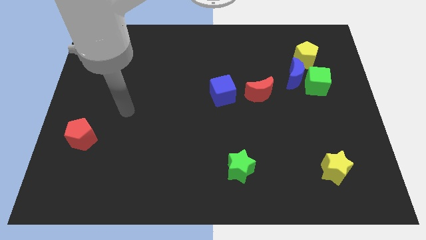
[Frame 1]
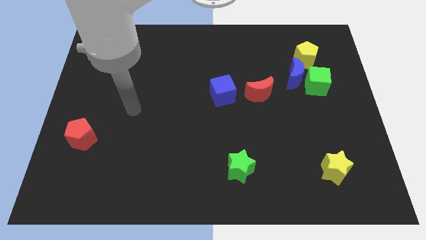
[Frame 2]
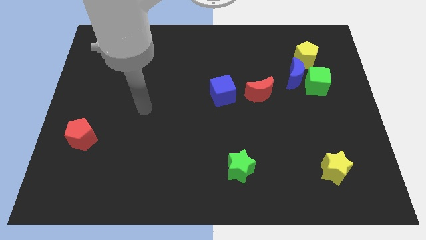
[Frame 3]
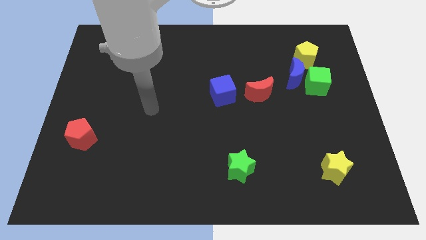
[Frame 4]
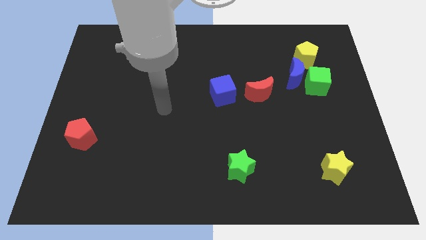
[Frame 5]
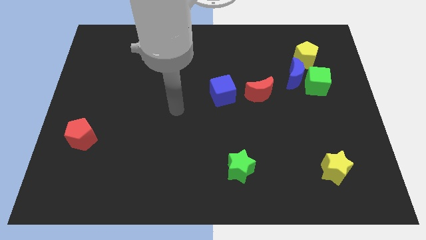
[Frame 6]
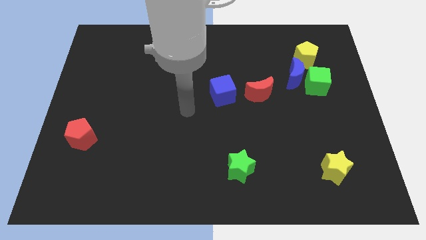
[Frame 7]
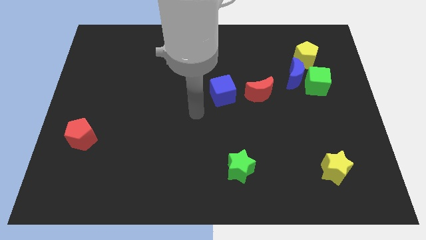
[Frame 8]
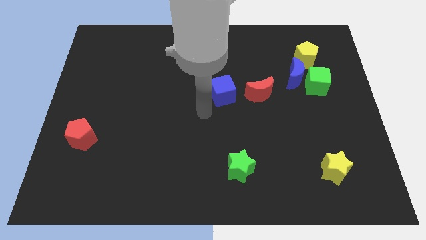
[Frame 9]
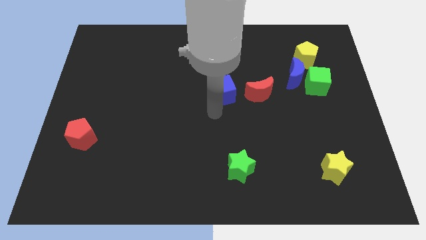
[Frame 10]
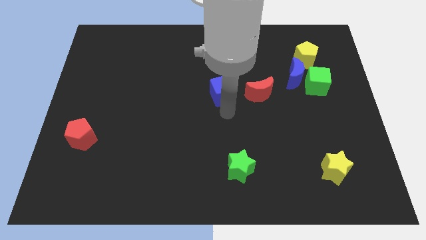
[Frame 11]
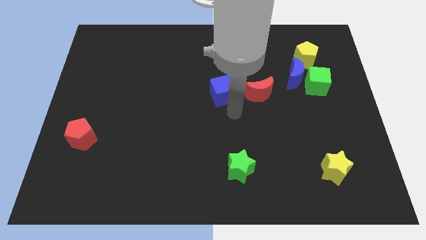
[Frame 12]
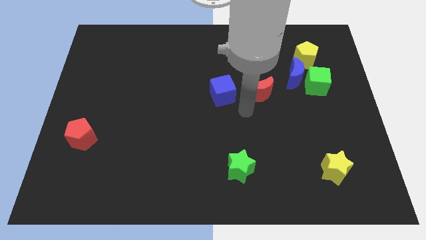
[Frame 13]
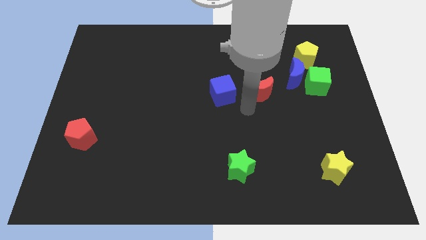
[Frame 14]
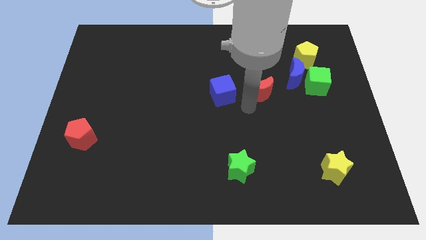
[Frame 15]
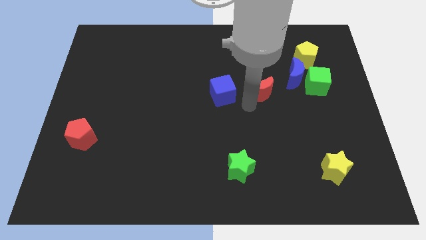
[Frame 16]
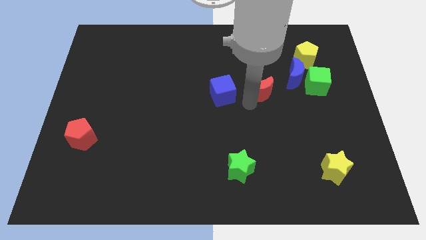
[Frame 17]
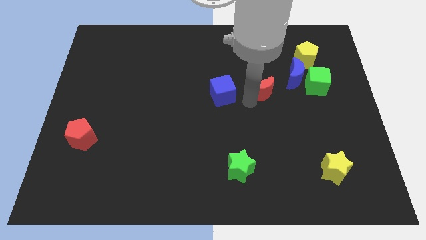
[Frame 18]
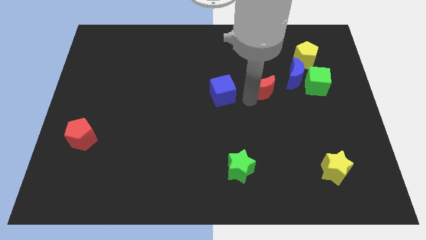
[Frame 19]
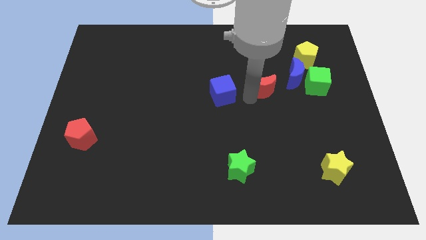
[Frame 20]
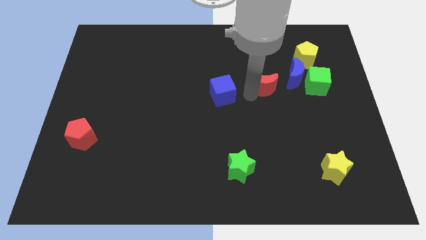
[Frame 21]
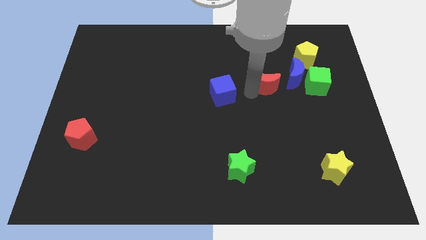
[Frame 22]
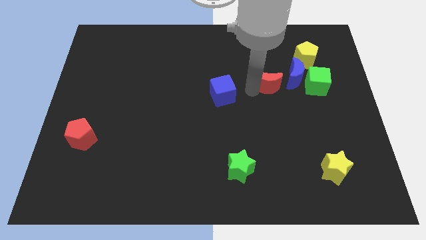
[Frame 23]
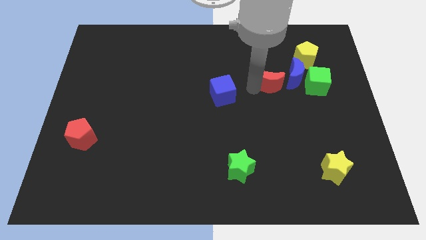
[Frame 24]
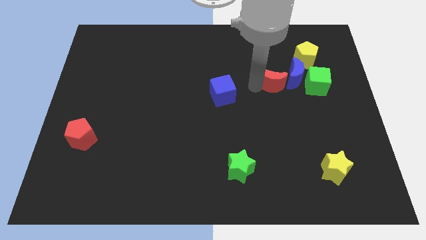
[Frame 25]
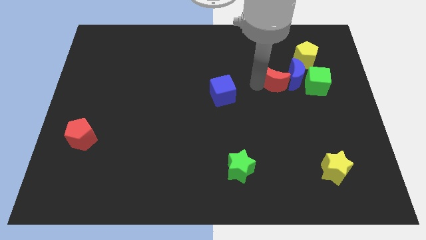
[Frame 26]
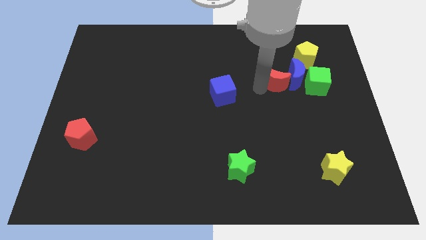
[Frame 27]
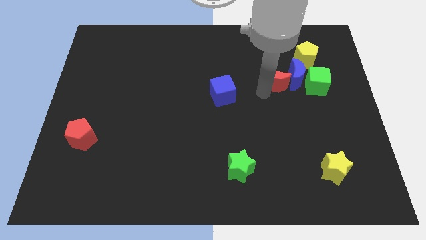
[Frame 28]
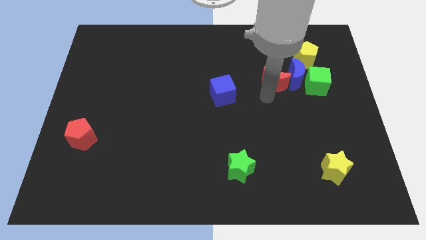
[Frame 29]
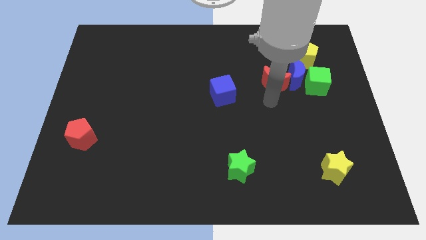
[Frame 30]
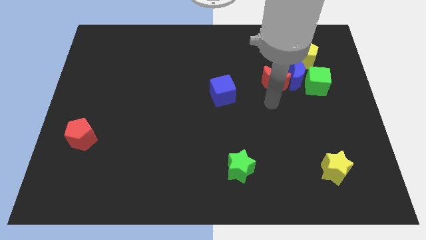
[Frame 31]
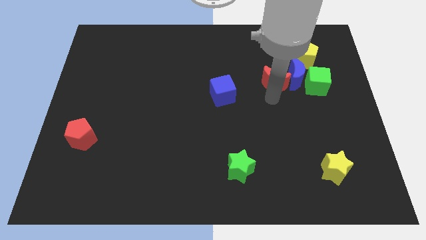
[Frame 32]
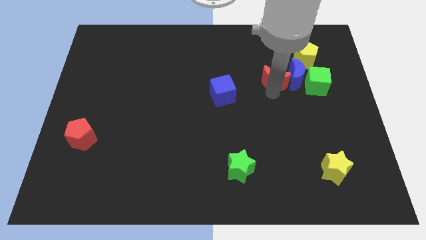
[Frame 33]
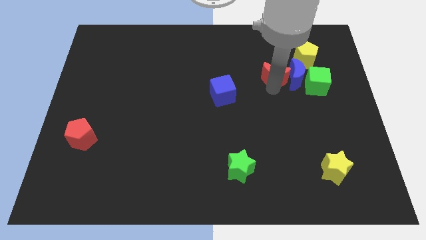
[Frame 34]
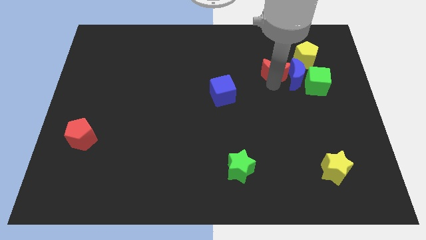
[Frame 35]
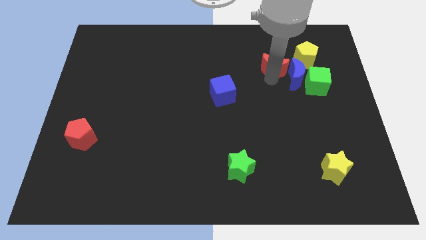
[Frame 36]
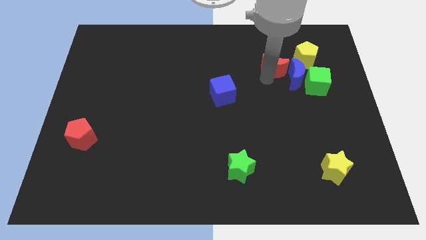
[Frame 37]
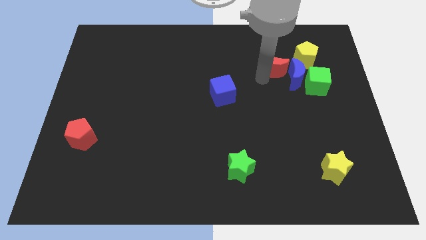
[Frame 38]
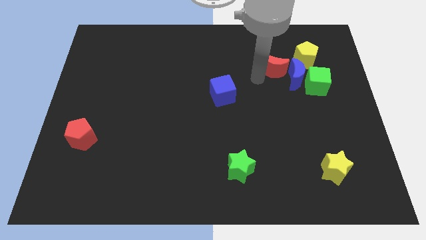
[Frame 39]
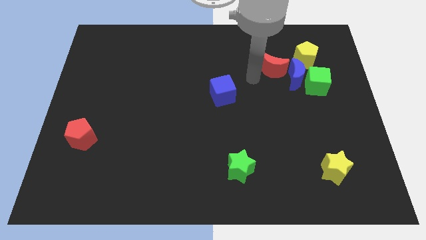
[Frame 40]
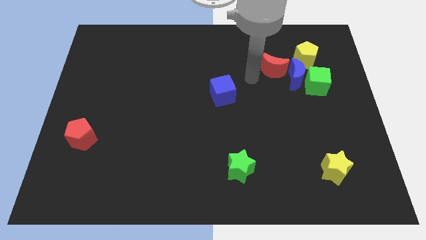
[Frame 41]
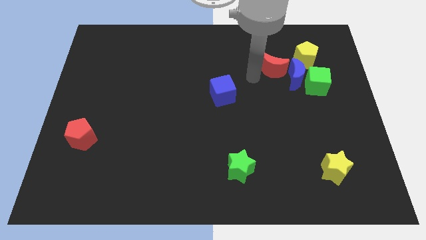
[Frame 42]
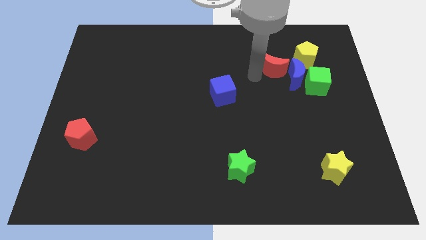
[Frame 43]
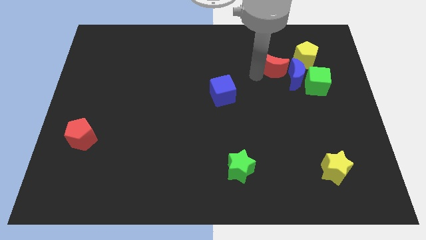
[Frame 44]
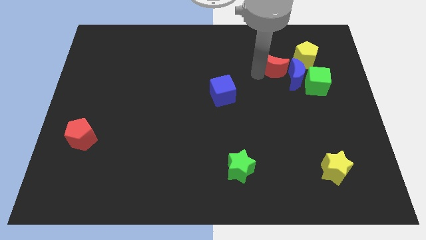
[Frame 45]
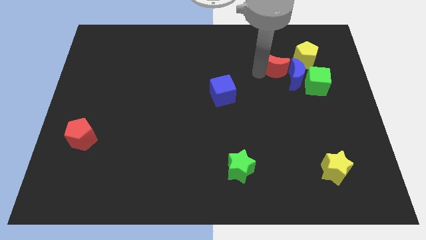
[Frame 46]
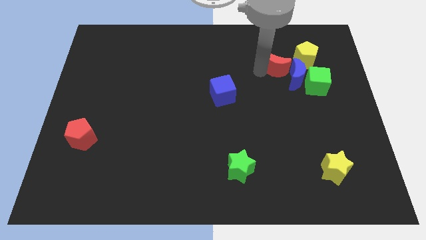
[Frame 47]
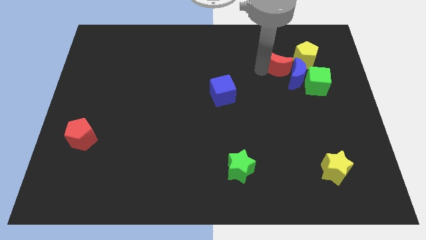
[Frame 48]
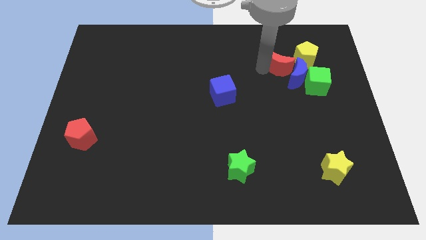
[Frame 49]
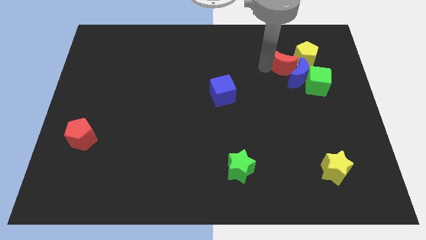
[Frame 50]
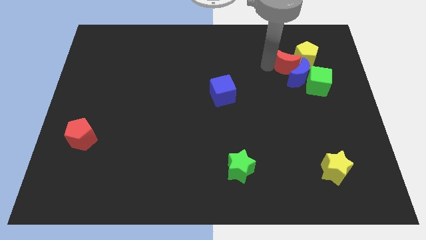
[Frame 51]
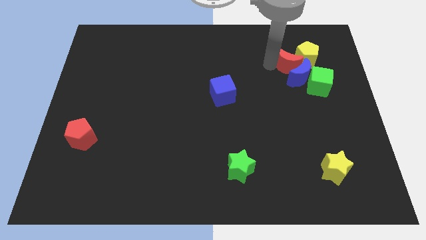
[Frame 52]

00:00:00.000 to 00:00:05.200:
push the red moon towards the yellow pentagon

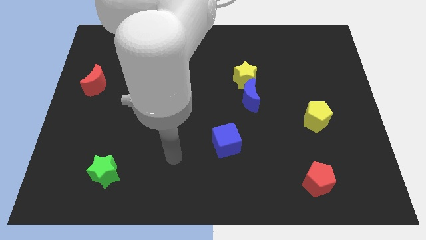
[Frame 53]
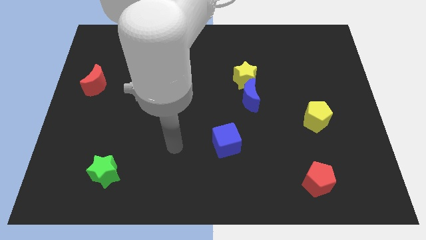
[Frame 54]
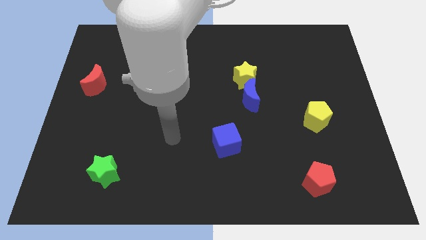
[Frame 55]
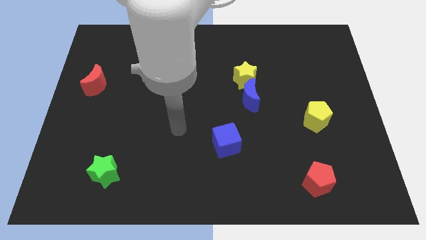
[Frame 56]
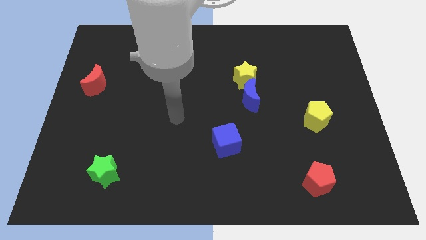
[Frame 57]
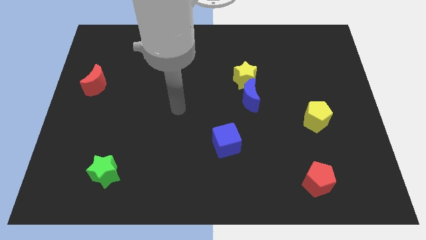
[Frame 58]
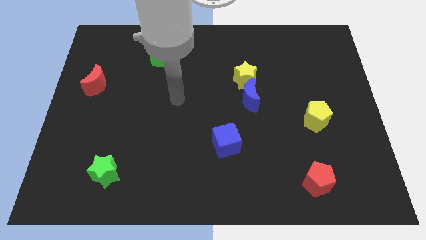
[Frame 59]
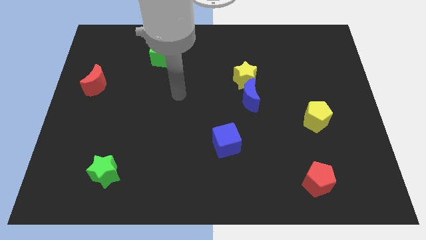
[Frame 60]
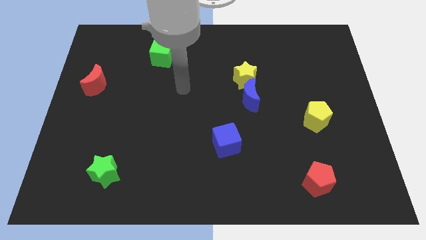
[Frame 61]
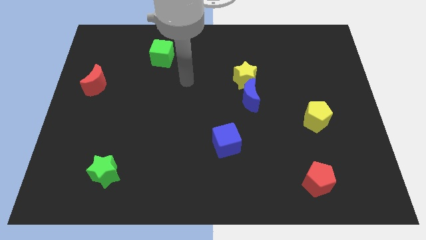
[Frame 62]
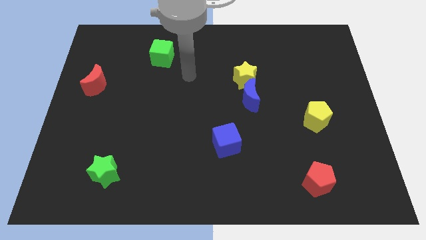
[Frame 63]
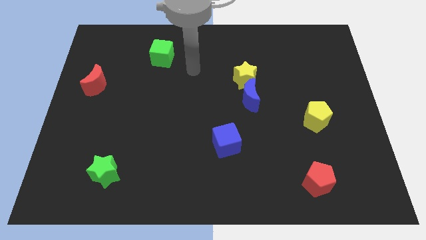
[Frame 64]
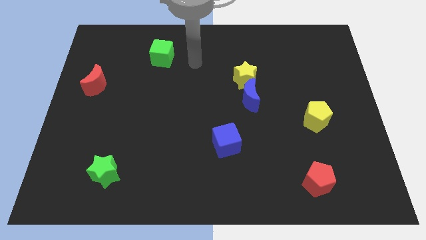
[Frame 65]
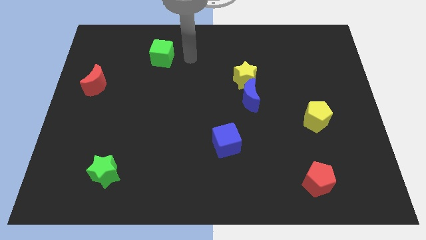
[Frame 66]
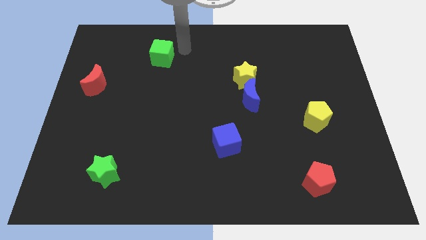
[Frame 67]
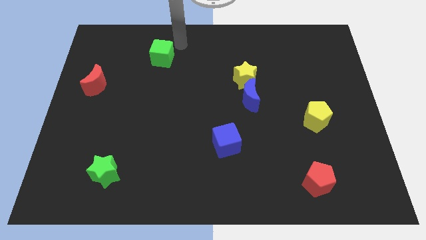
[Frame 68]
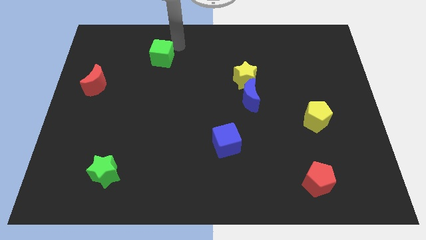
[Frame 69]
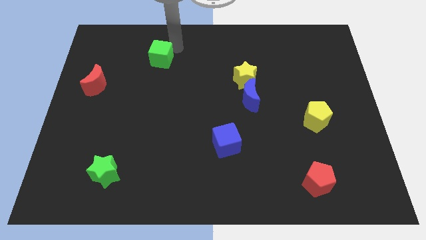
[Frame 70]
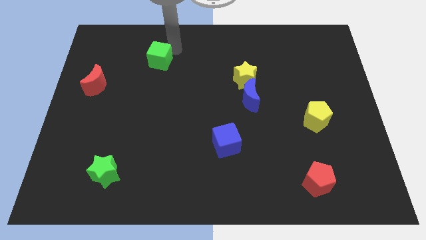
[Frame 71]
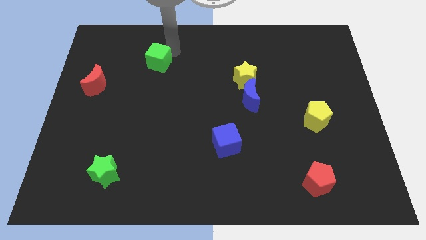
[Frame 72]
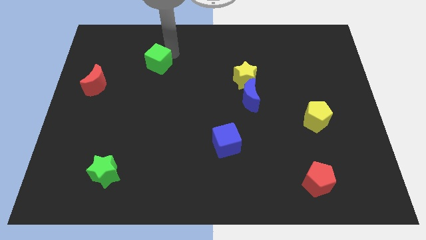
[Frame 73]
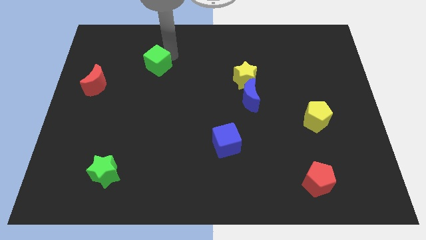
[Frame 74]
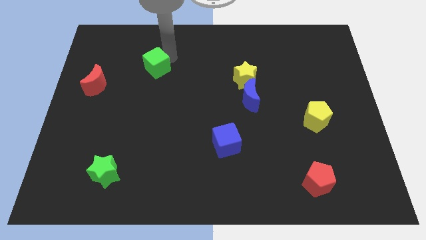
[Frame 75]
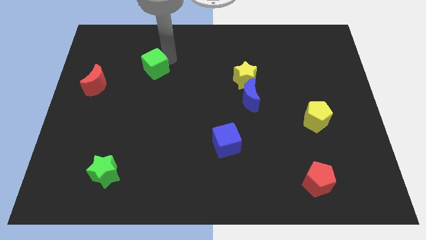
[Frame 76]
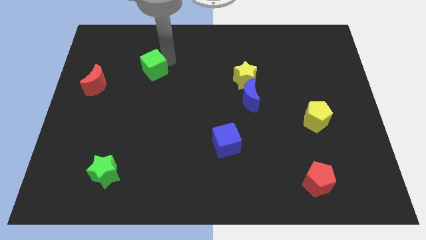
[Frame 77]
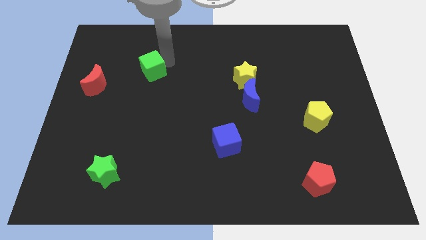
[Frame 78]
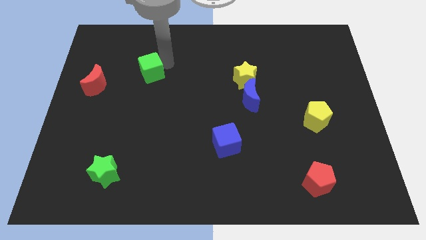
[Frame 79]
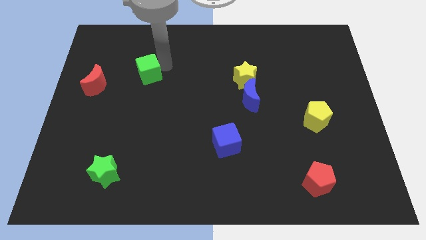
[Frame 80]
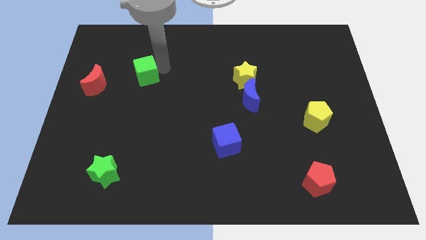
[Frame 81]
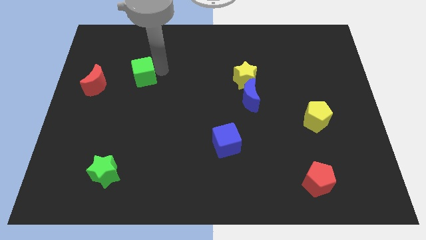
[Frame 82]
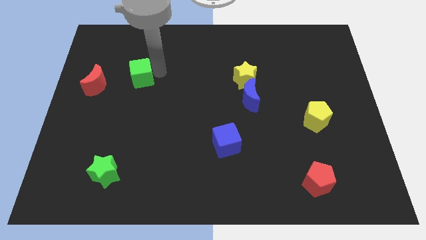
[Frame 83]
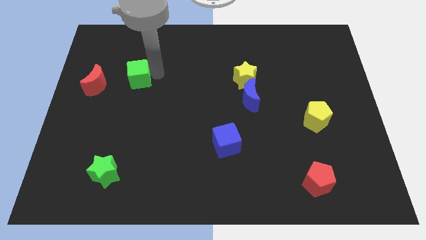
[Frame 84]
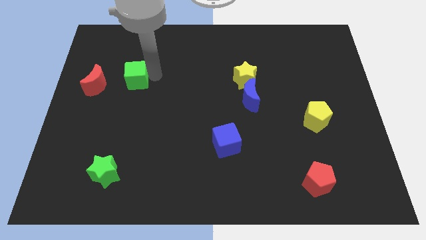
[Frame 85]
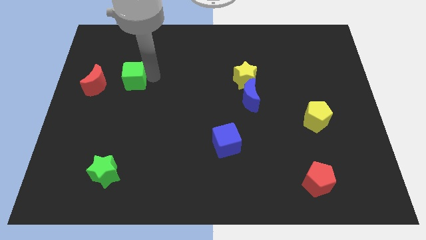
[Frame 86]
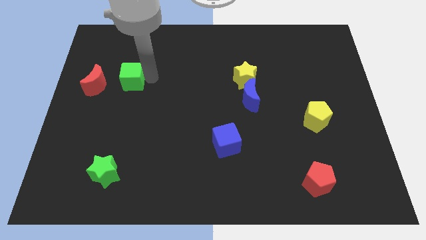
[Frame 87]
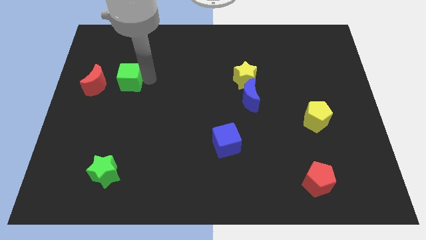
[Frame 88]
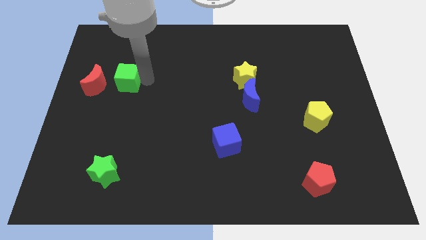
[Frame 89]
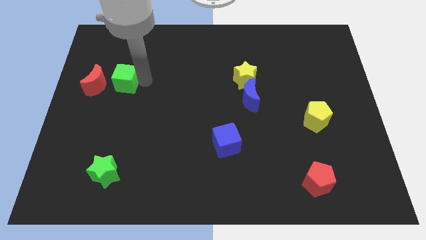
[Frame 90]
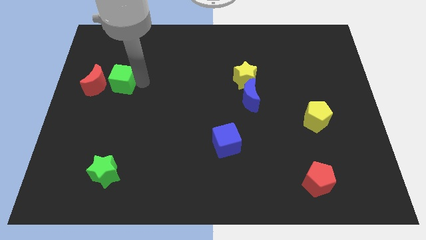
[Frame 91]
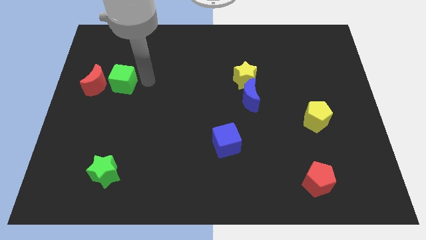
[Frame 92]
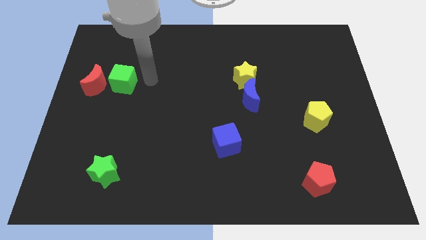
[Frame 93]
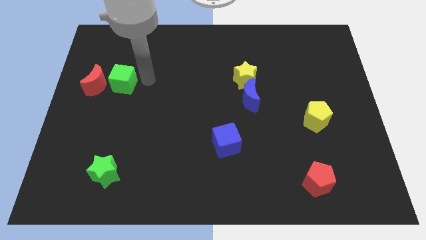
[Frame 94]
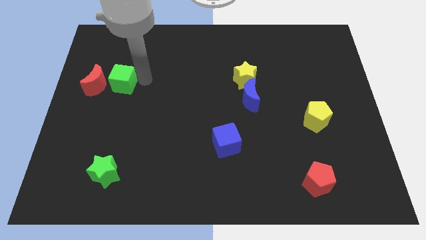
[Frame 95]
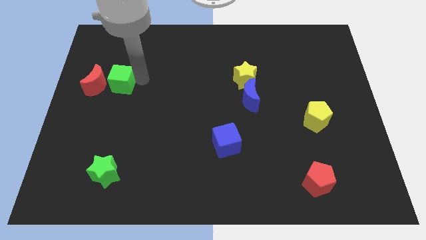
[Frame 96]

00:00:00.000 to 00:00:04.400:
slide the green cube towards the red moon
